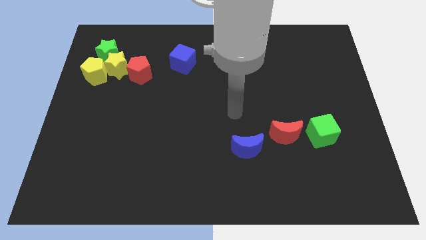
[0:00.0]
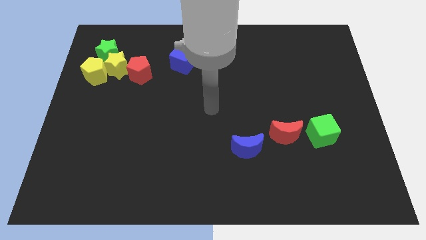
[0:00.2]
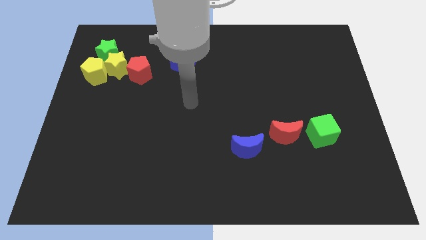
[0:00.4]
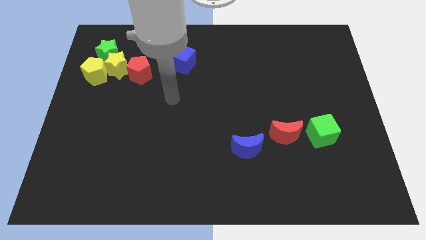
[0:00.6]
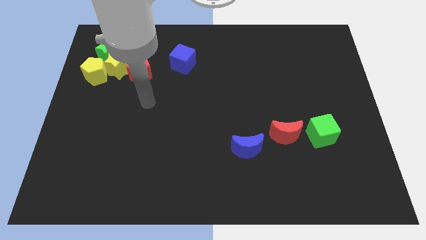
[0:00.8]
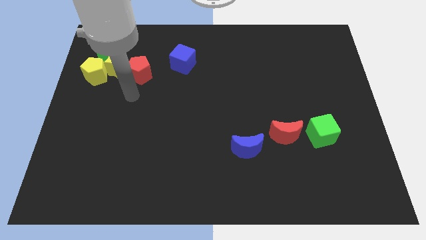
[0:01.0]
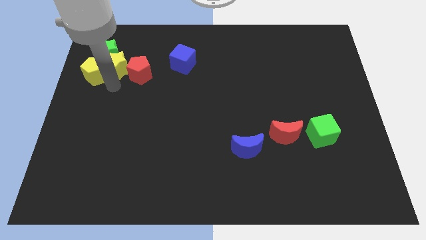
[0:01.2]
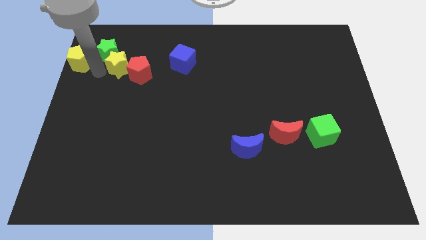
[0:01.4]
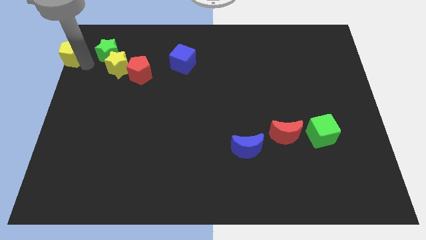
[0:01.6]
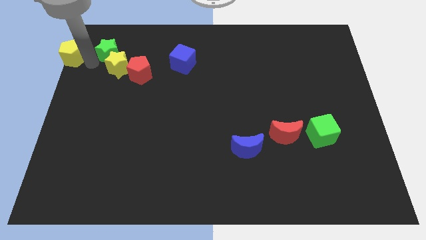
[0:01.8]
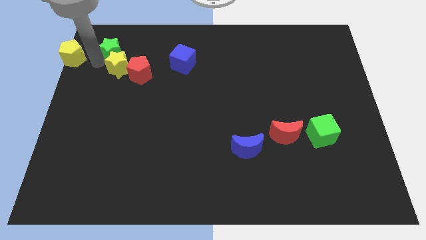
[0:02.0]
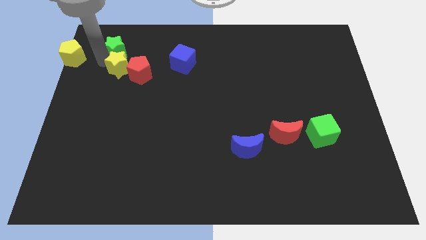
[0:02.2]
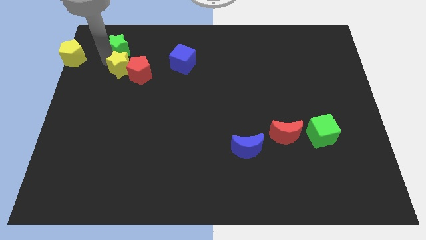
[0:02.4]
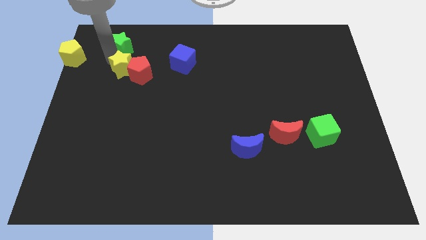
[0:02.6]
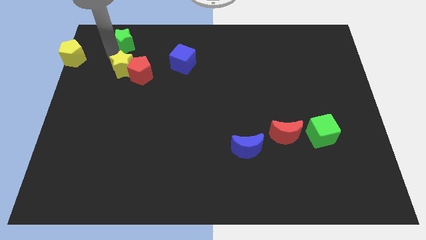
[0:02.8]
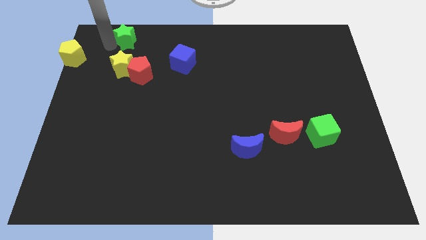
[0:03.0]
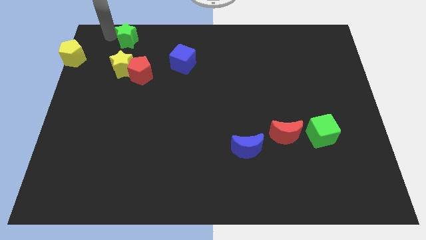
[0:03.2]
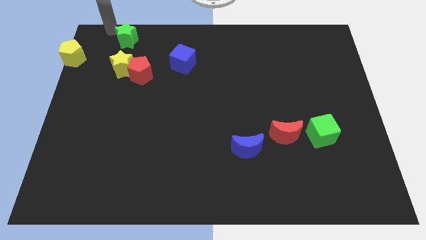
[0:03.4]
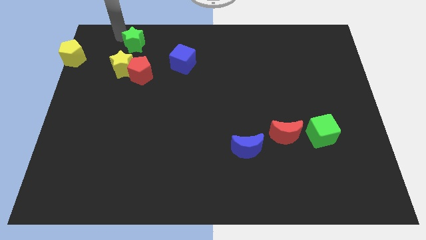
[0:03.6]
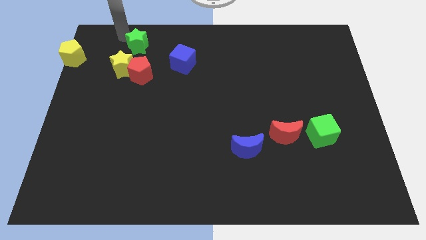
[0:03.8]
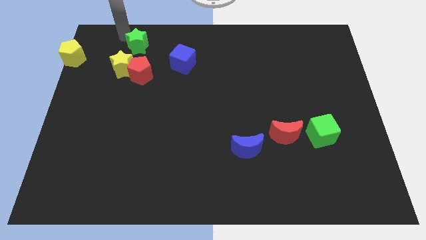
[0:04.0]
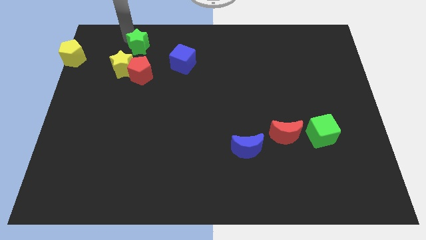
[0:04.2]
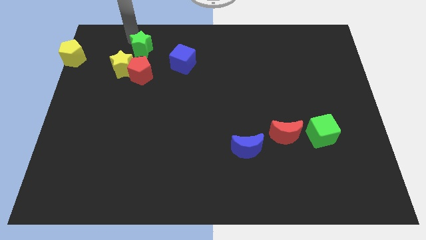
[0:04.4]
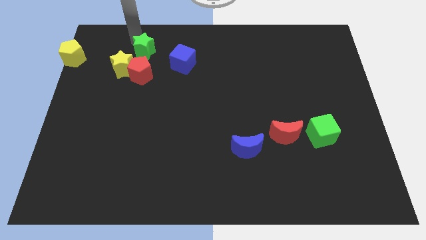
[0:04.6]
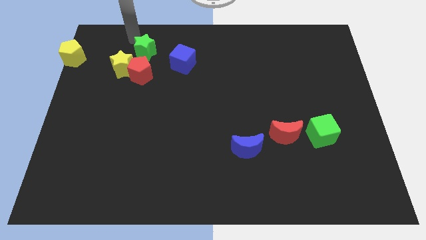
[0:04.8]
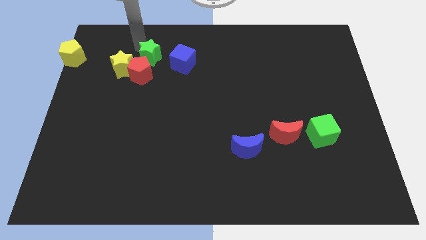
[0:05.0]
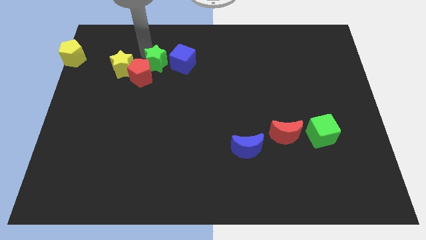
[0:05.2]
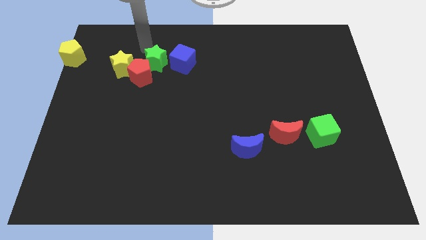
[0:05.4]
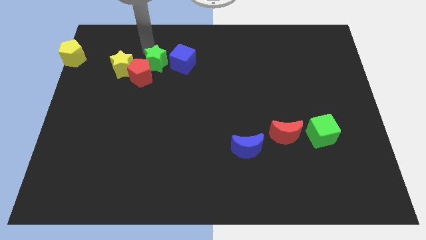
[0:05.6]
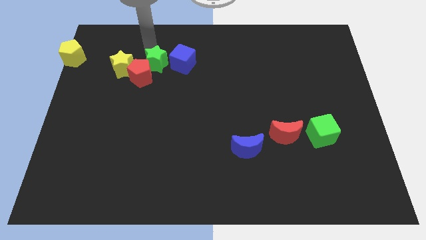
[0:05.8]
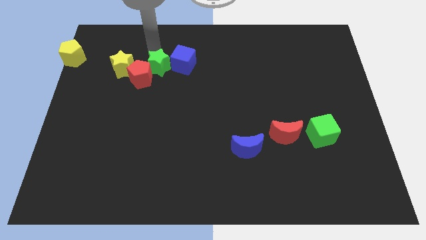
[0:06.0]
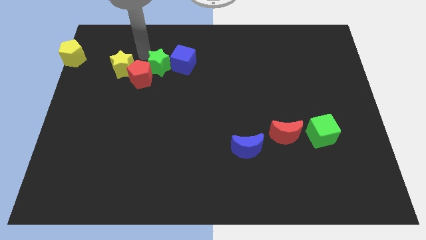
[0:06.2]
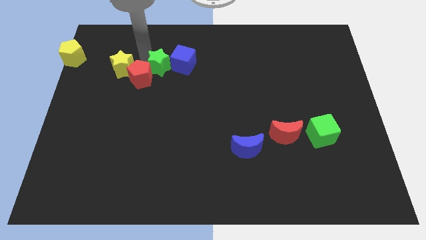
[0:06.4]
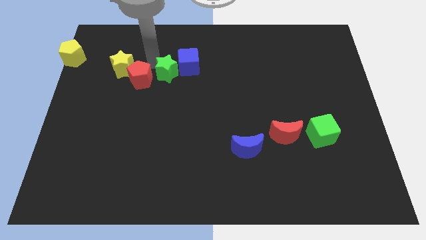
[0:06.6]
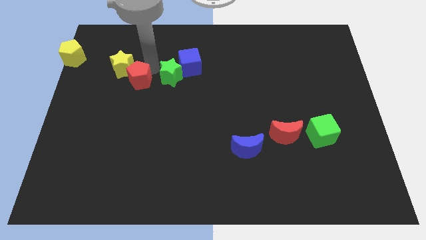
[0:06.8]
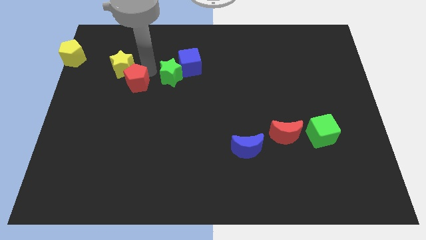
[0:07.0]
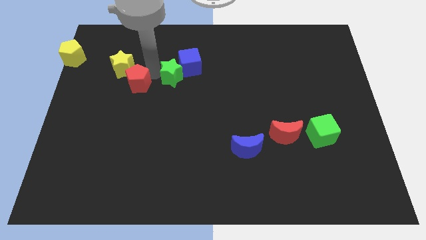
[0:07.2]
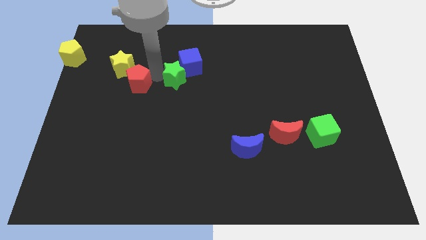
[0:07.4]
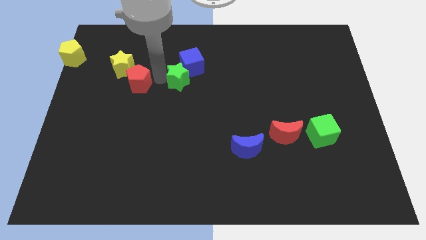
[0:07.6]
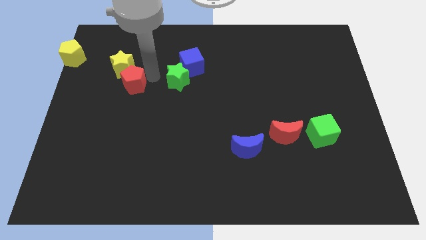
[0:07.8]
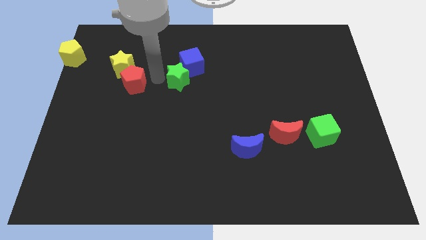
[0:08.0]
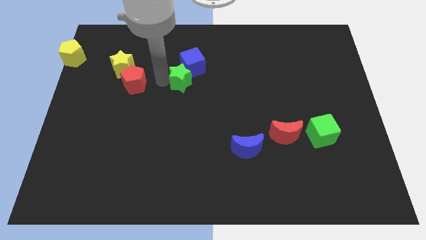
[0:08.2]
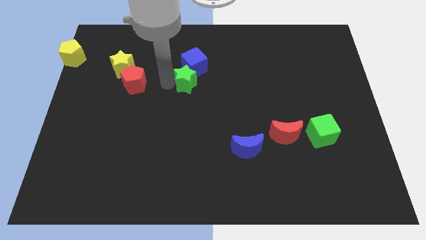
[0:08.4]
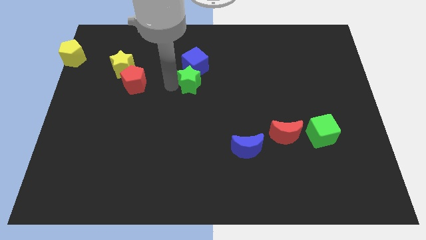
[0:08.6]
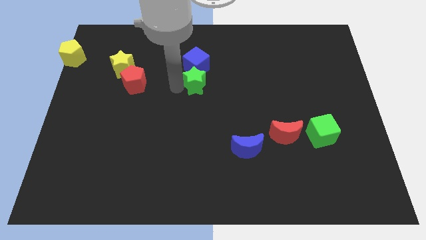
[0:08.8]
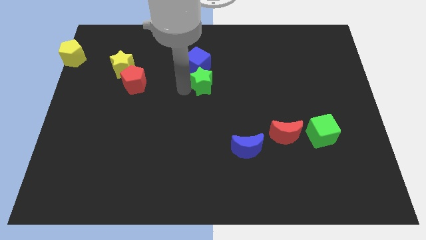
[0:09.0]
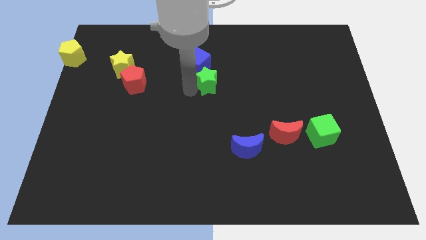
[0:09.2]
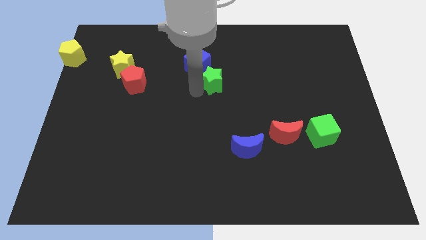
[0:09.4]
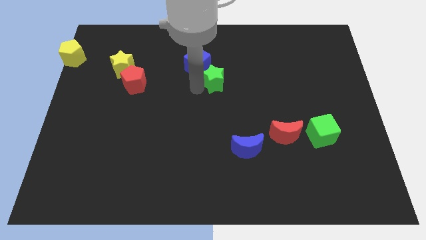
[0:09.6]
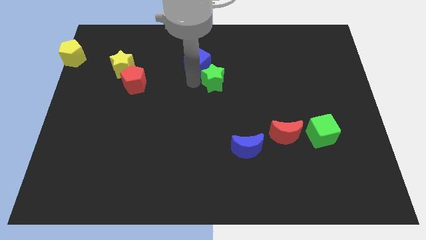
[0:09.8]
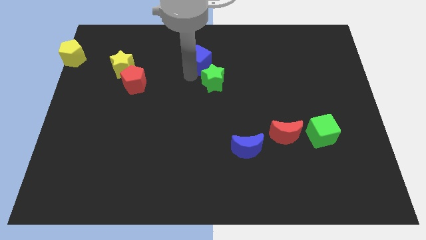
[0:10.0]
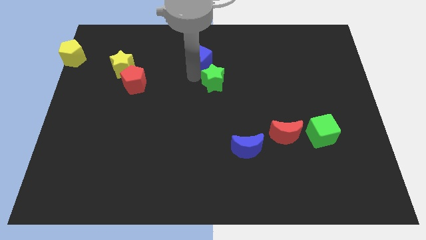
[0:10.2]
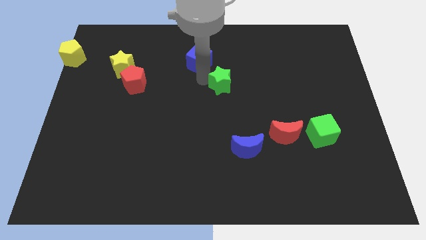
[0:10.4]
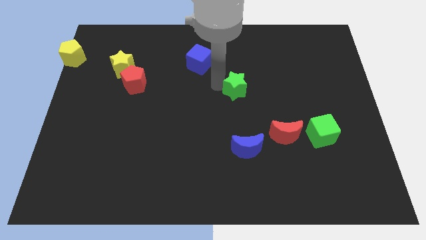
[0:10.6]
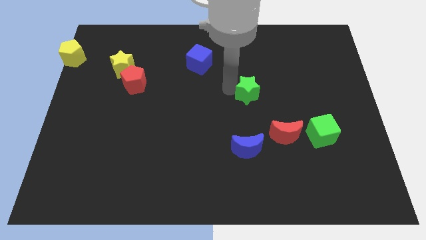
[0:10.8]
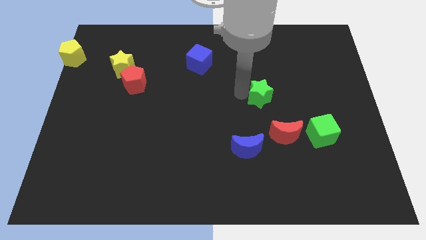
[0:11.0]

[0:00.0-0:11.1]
move the green star to the top of the red moon

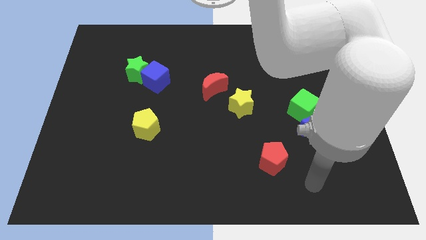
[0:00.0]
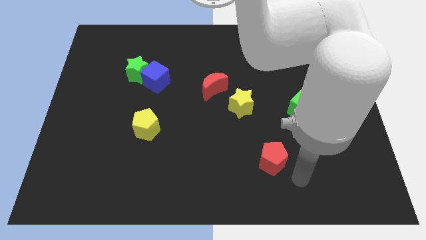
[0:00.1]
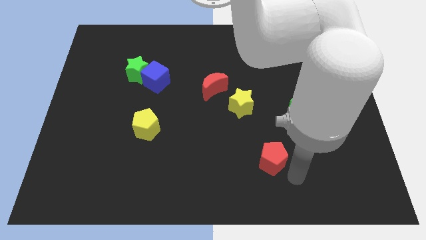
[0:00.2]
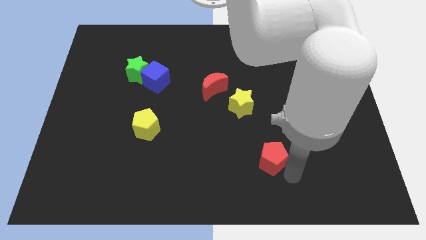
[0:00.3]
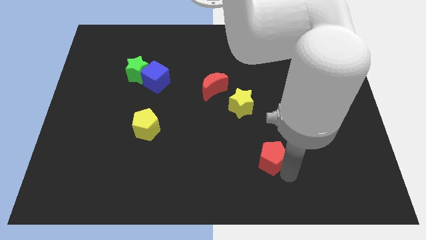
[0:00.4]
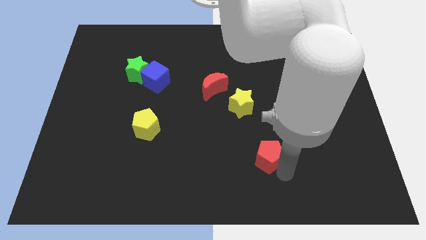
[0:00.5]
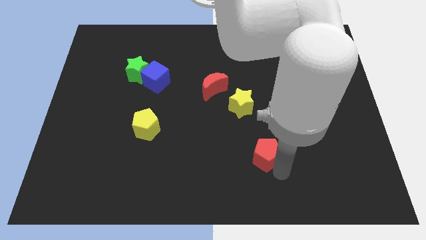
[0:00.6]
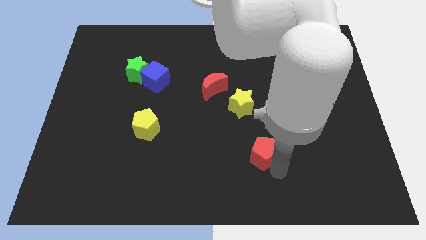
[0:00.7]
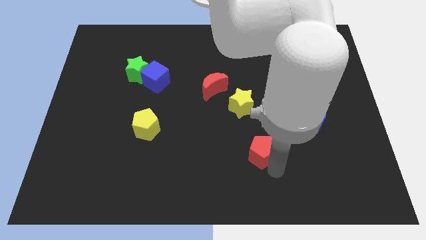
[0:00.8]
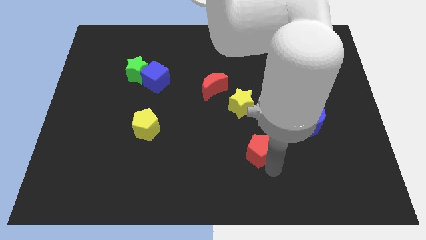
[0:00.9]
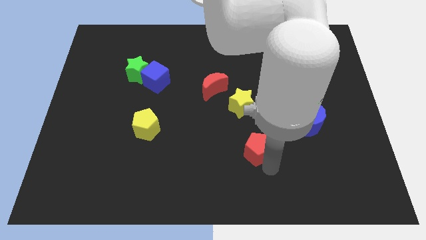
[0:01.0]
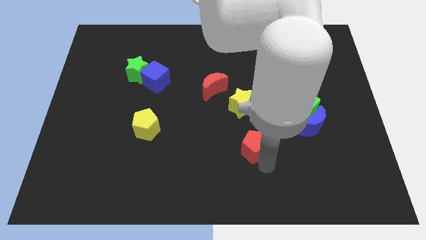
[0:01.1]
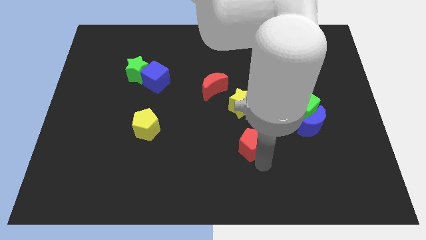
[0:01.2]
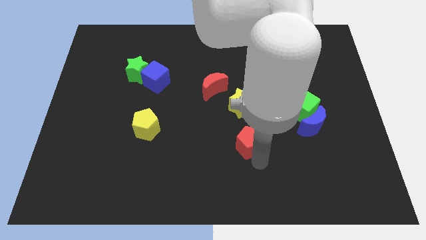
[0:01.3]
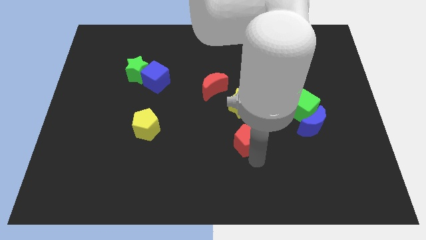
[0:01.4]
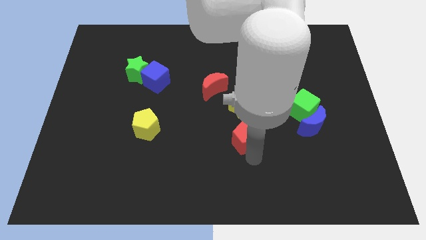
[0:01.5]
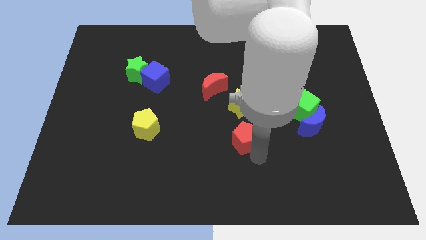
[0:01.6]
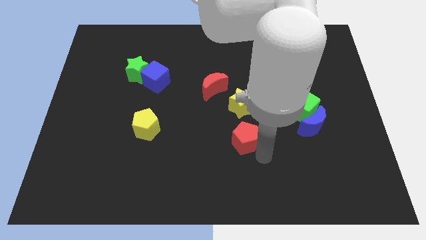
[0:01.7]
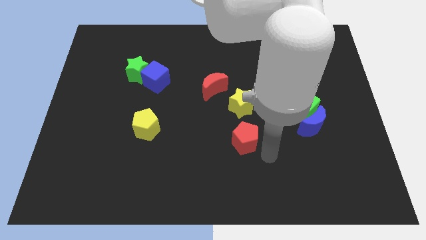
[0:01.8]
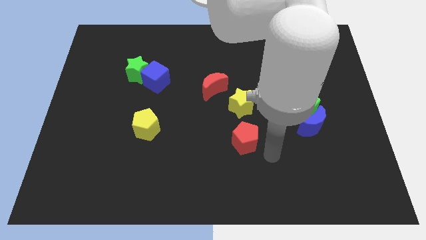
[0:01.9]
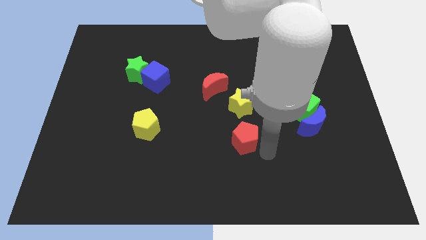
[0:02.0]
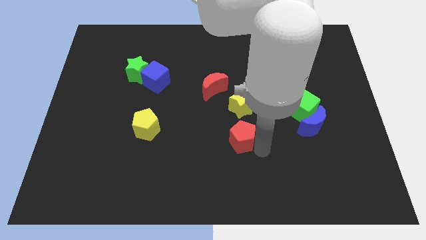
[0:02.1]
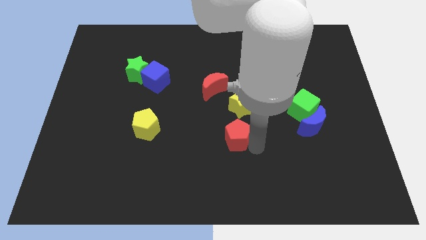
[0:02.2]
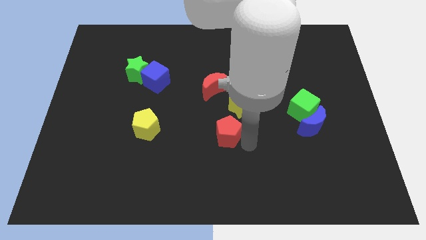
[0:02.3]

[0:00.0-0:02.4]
slide the red pentagon below the red moon
